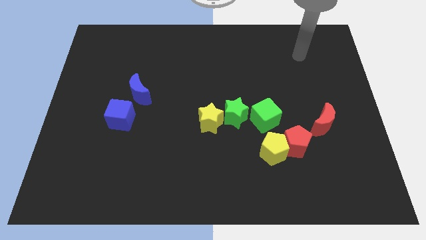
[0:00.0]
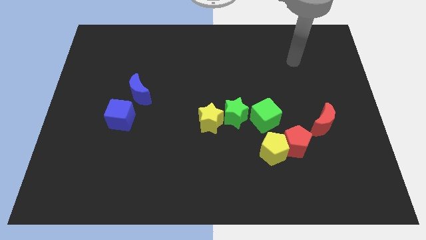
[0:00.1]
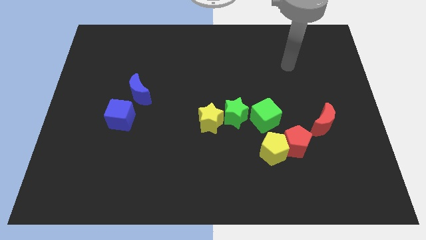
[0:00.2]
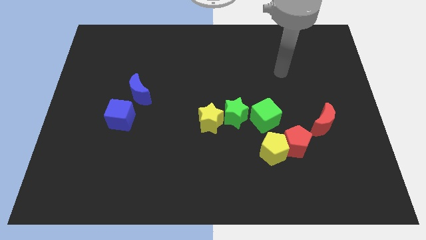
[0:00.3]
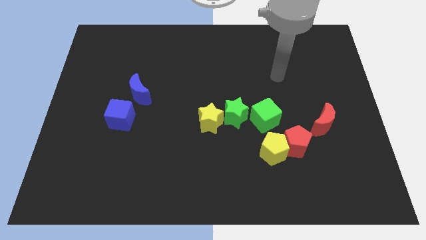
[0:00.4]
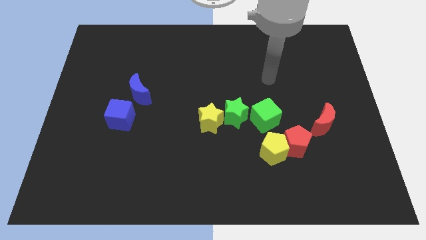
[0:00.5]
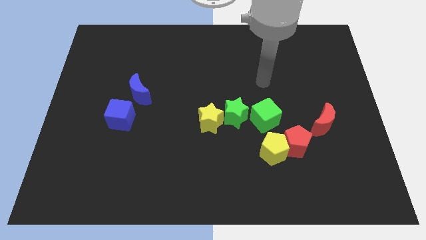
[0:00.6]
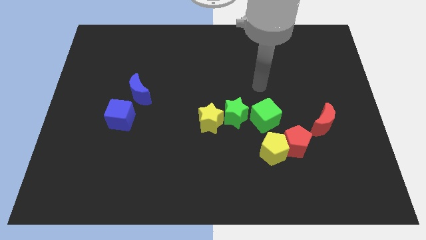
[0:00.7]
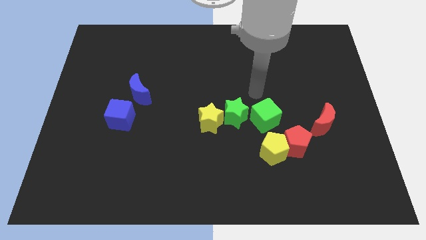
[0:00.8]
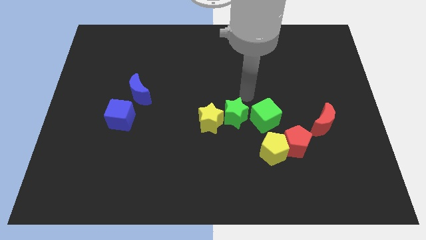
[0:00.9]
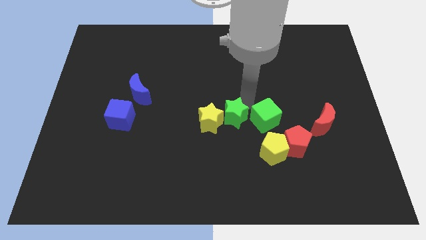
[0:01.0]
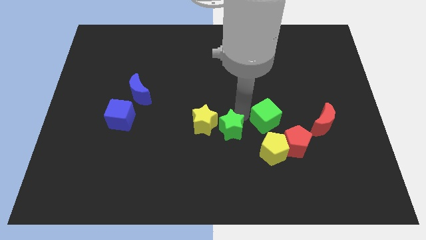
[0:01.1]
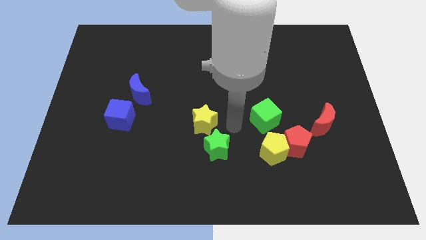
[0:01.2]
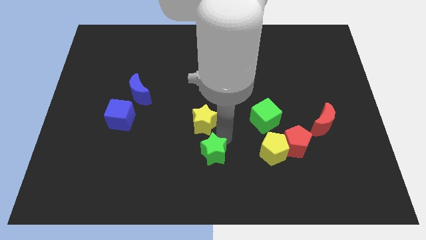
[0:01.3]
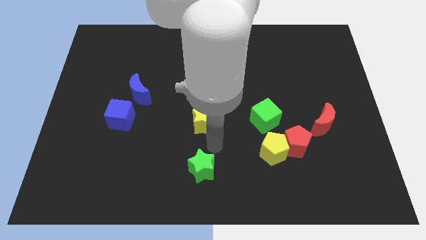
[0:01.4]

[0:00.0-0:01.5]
pull the yellow star apart from the green star

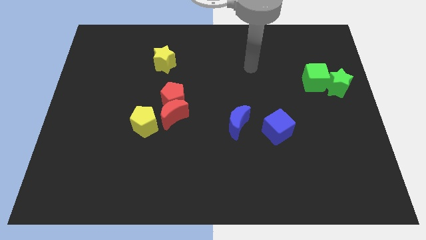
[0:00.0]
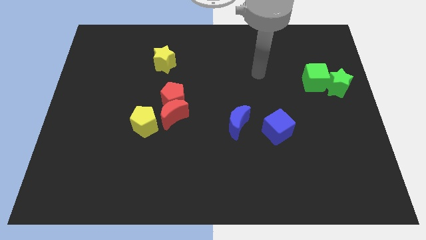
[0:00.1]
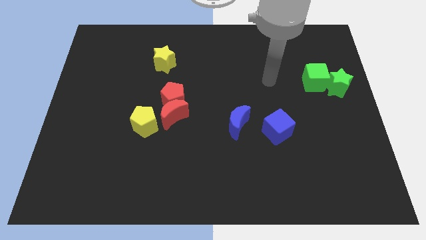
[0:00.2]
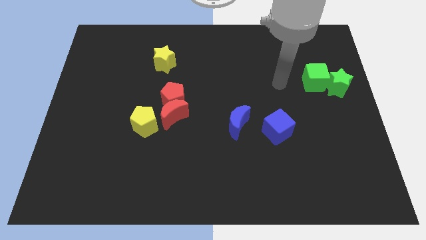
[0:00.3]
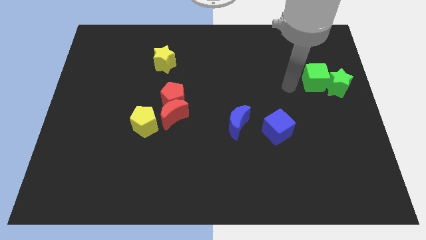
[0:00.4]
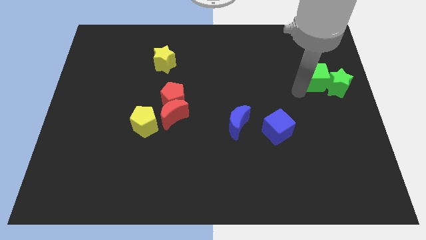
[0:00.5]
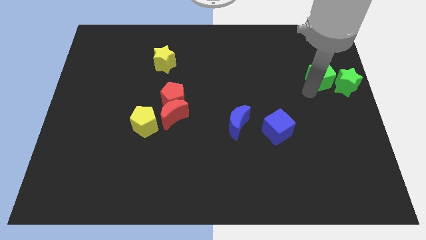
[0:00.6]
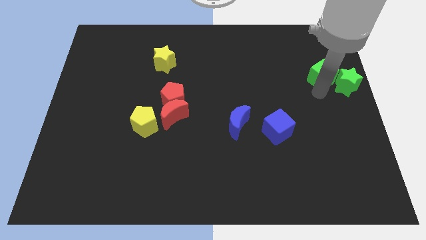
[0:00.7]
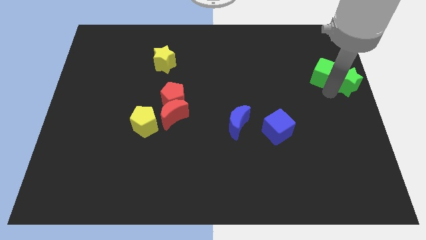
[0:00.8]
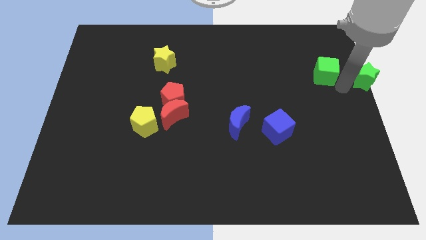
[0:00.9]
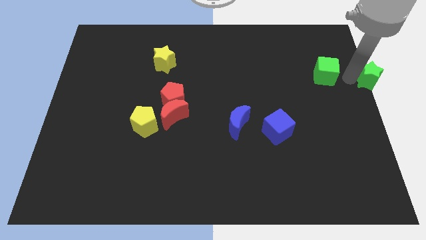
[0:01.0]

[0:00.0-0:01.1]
pull the green cube apart from the green star

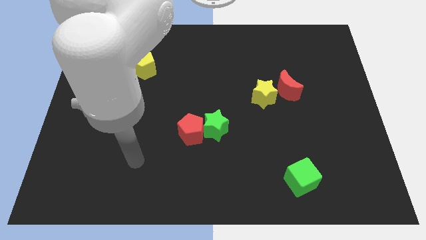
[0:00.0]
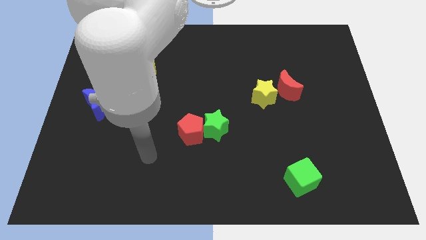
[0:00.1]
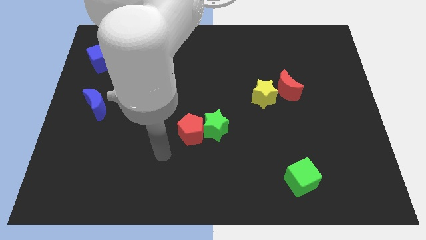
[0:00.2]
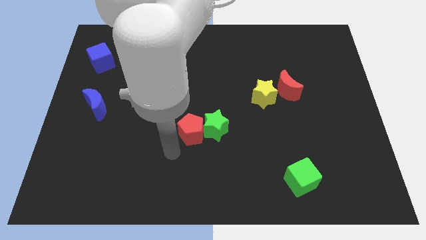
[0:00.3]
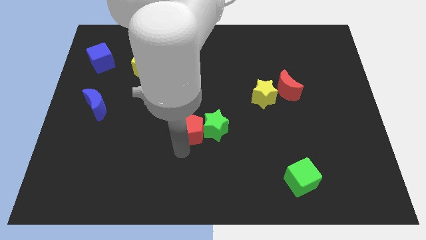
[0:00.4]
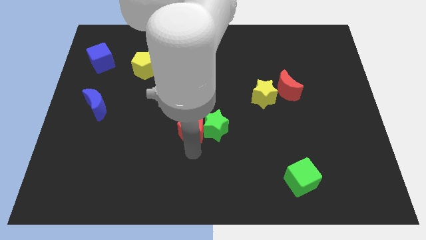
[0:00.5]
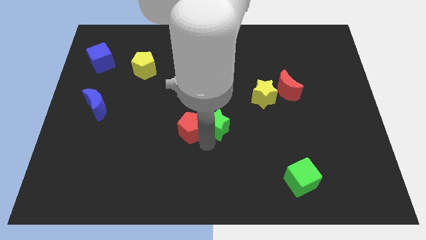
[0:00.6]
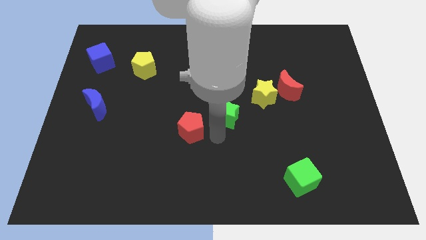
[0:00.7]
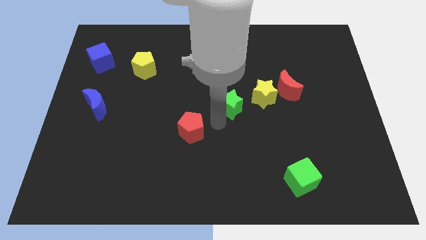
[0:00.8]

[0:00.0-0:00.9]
pull the red pentagon apart from the green star

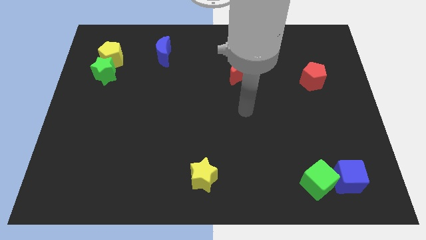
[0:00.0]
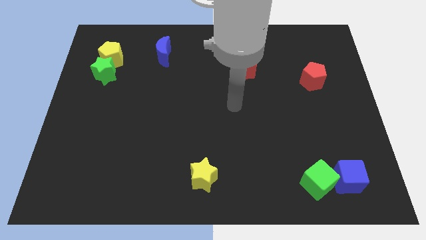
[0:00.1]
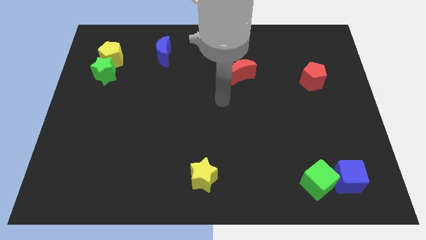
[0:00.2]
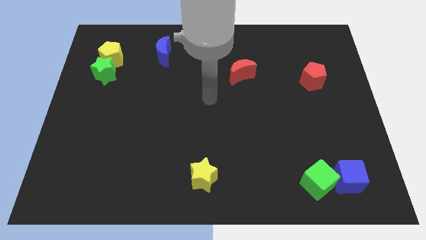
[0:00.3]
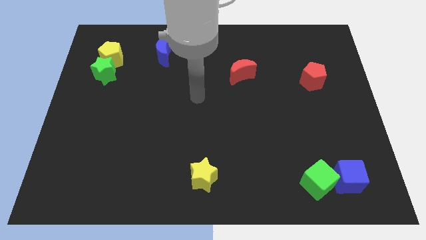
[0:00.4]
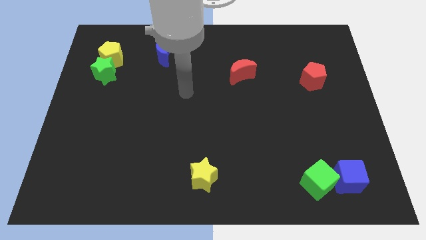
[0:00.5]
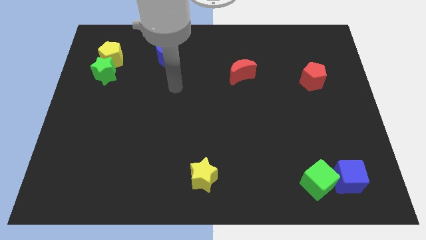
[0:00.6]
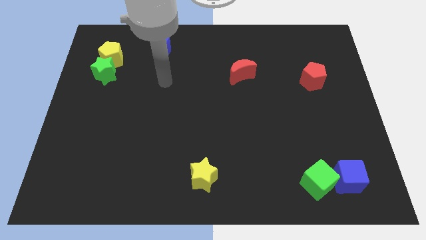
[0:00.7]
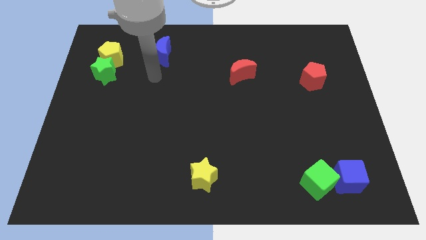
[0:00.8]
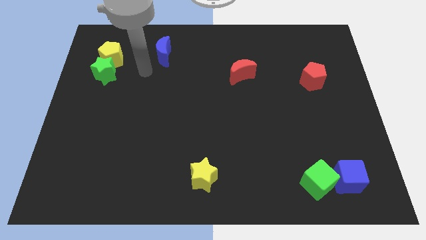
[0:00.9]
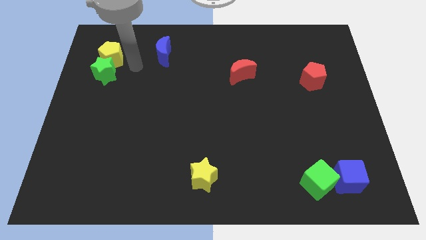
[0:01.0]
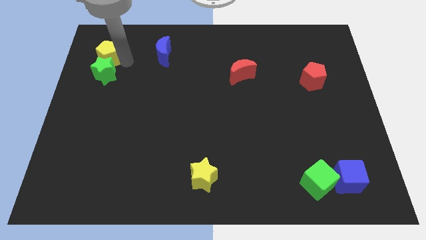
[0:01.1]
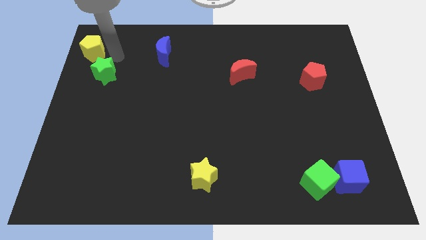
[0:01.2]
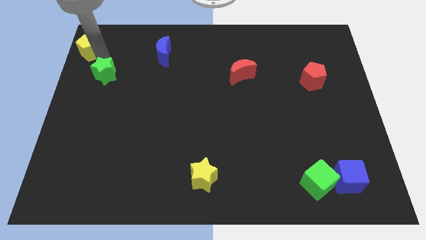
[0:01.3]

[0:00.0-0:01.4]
separate the green star from the yellow pentagon

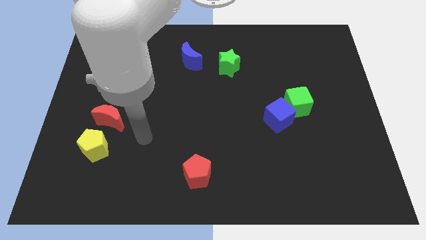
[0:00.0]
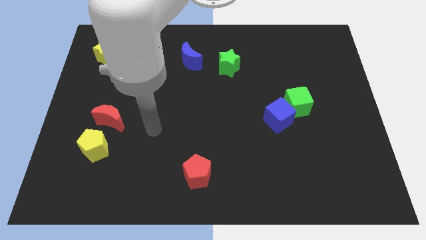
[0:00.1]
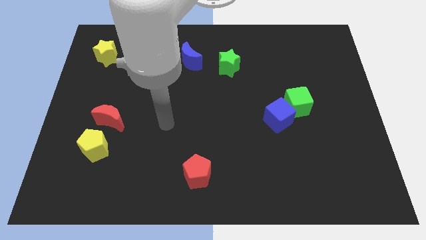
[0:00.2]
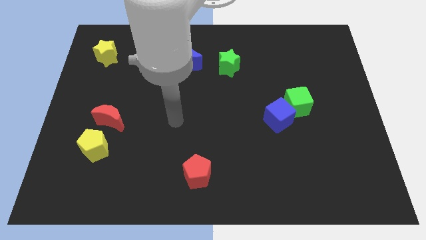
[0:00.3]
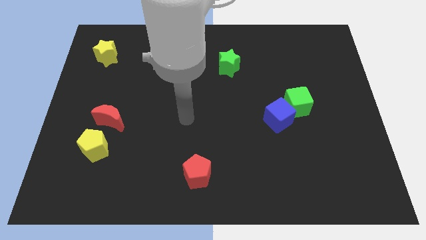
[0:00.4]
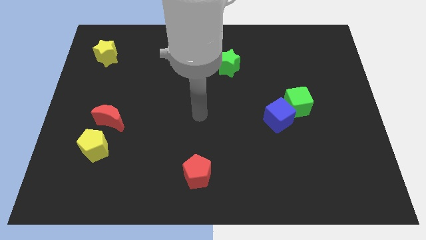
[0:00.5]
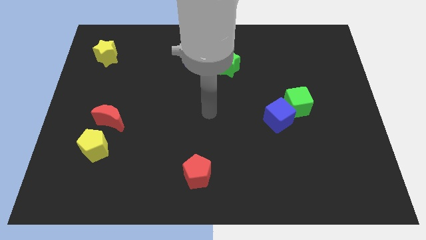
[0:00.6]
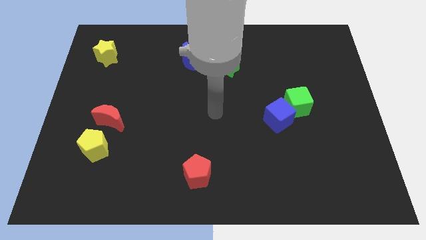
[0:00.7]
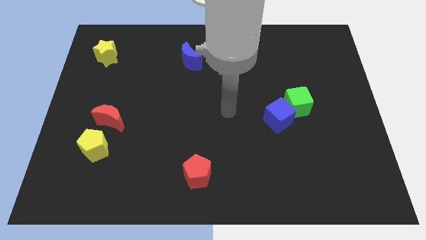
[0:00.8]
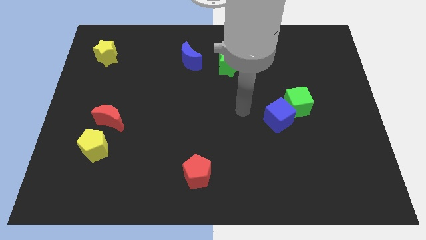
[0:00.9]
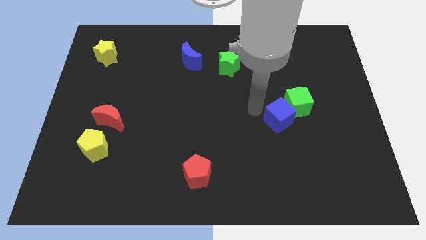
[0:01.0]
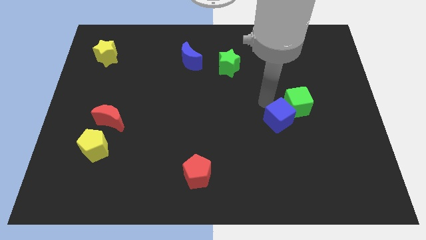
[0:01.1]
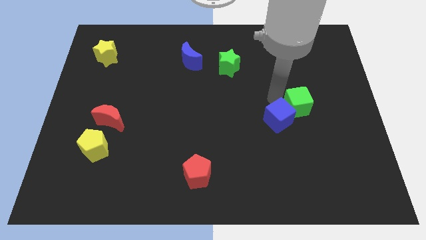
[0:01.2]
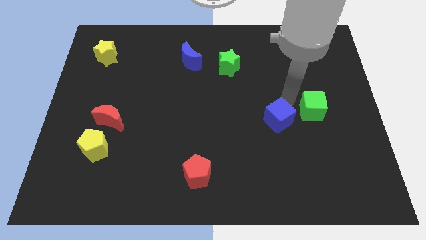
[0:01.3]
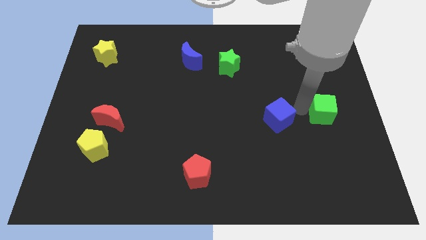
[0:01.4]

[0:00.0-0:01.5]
pull the blue cube apart from the green cube

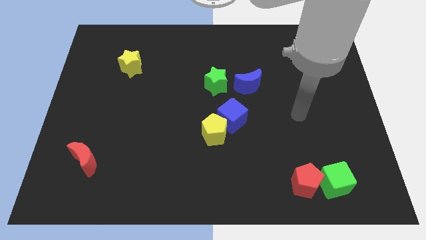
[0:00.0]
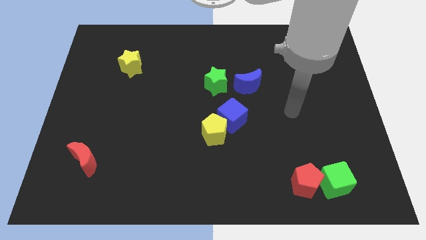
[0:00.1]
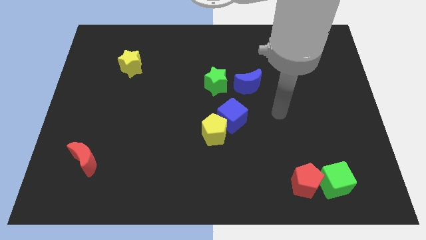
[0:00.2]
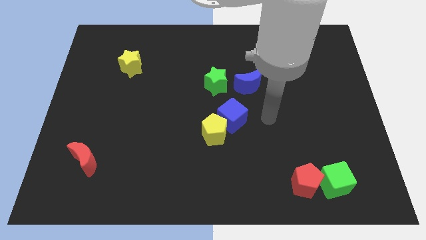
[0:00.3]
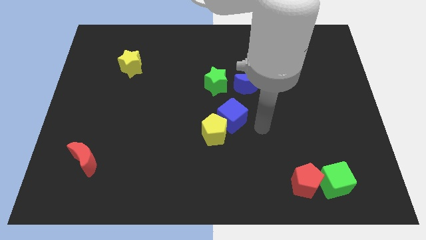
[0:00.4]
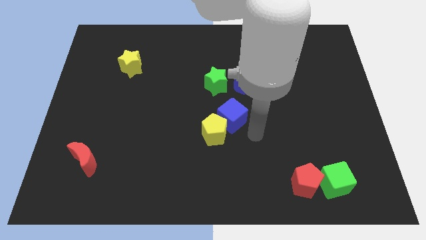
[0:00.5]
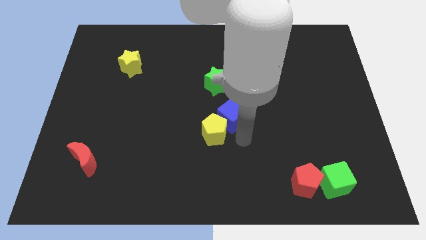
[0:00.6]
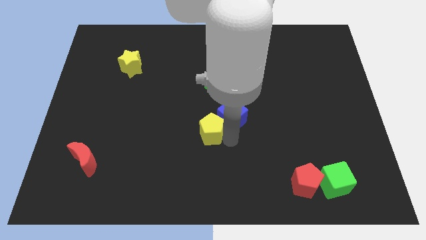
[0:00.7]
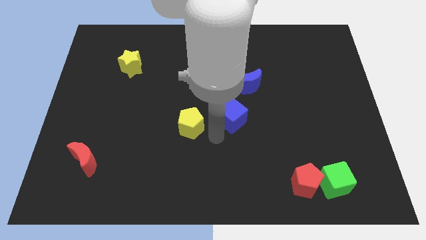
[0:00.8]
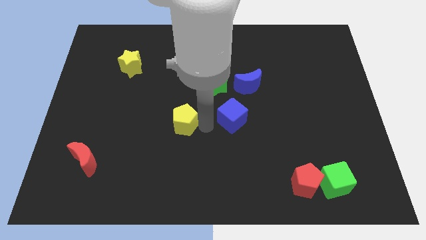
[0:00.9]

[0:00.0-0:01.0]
separate the blue cube from the yellow pentagon

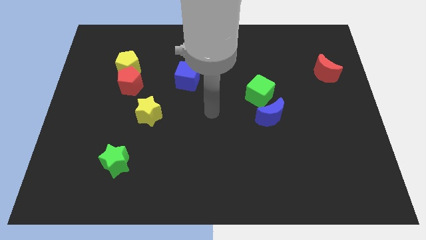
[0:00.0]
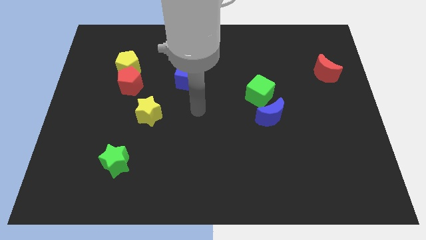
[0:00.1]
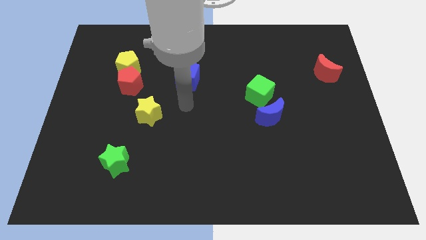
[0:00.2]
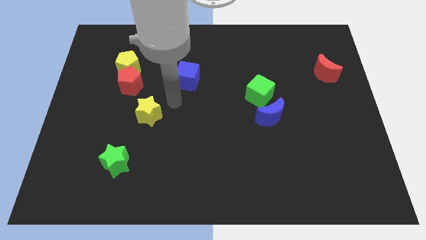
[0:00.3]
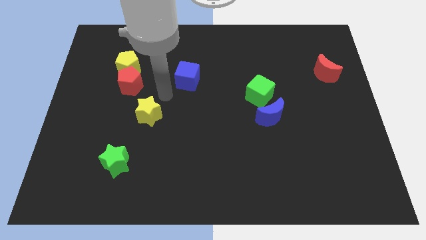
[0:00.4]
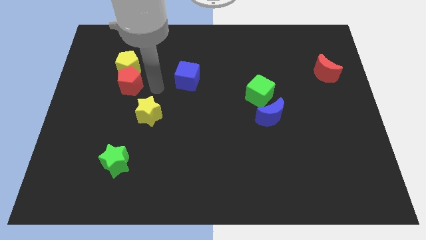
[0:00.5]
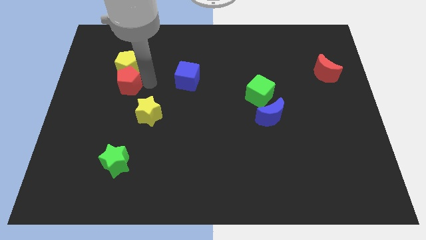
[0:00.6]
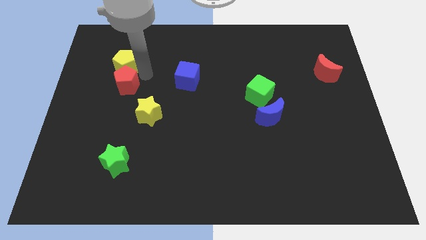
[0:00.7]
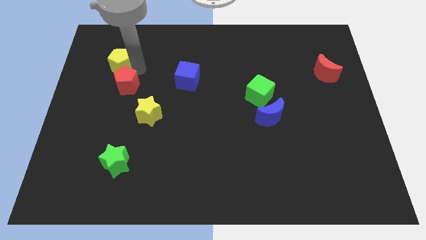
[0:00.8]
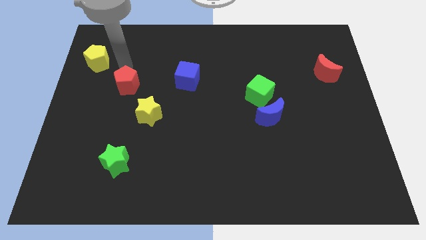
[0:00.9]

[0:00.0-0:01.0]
separate the red pentagon from the yellow pentagon

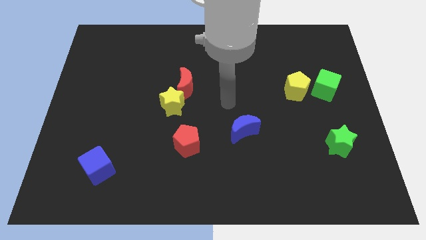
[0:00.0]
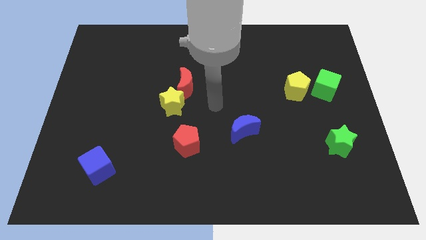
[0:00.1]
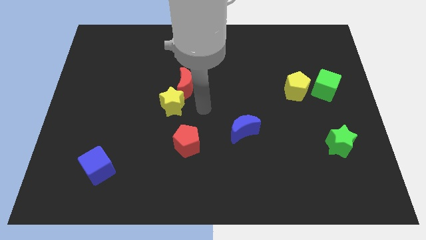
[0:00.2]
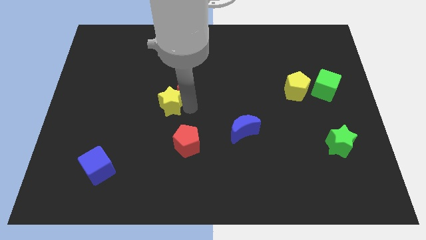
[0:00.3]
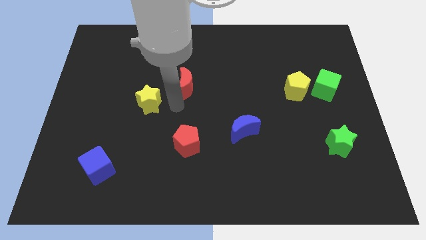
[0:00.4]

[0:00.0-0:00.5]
pull the red moon apart from the yellow star

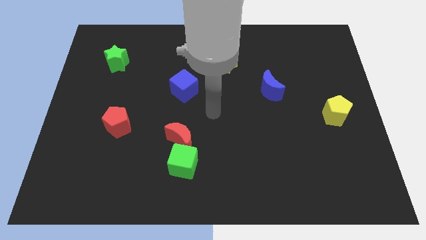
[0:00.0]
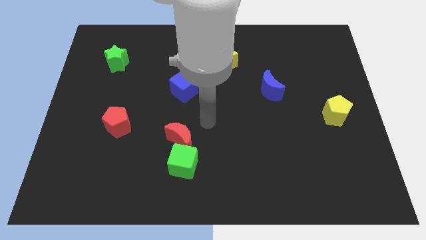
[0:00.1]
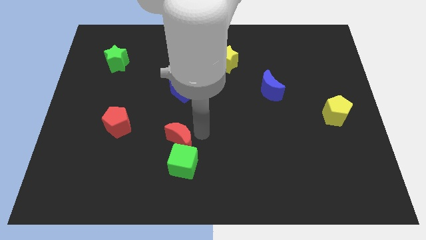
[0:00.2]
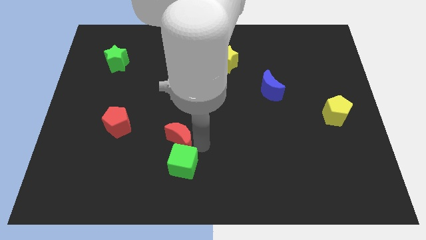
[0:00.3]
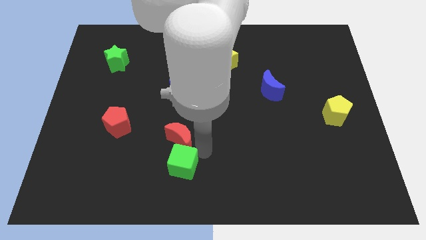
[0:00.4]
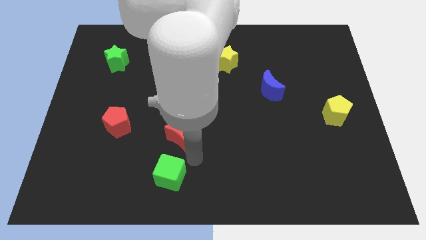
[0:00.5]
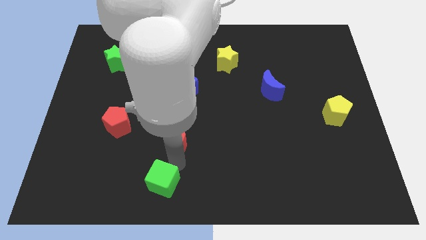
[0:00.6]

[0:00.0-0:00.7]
separate the red moon from the green cube
